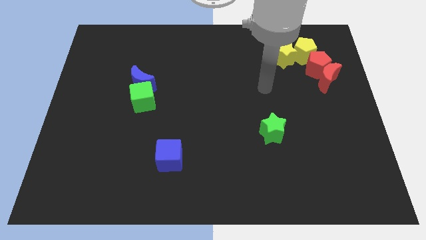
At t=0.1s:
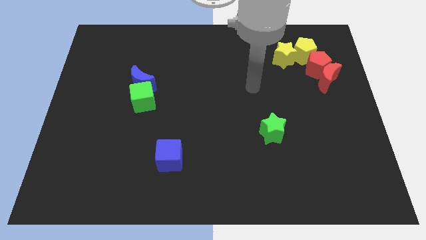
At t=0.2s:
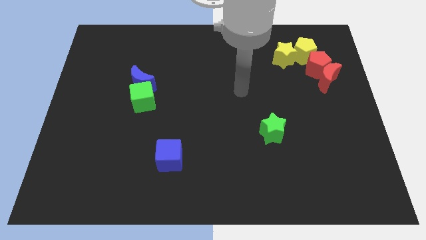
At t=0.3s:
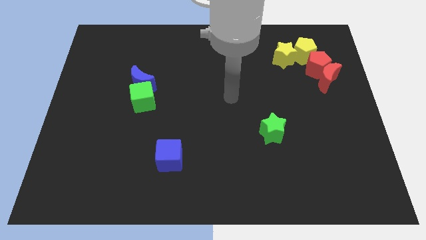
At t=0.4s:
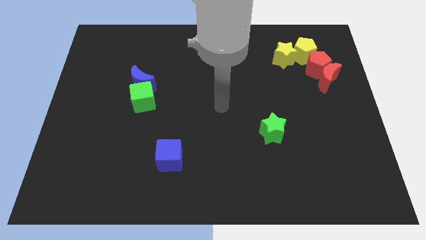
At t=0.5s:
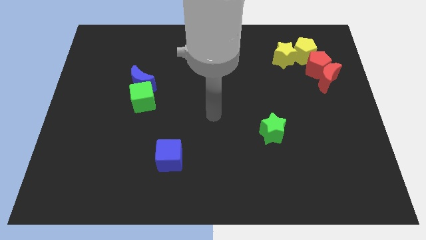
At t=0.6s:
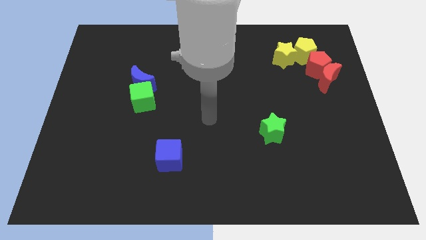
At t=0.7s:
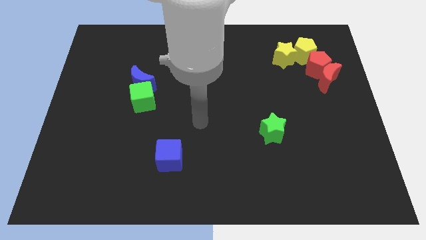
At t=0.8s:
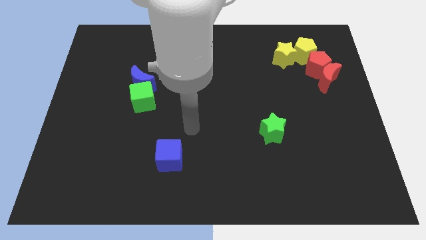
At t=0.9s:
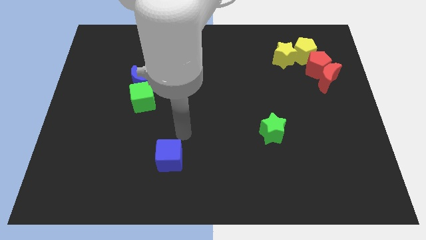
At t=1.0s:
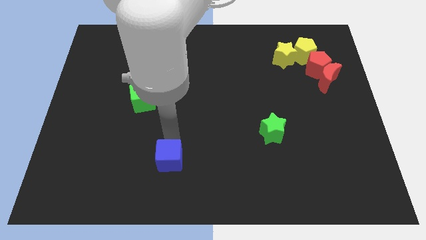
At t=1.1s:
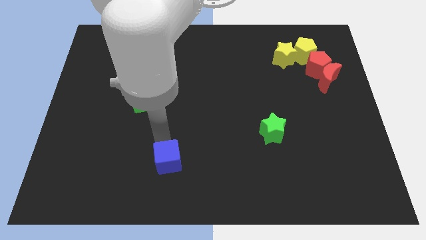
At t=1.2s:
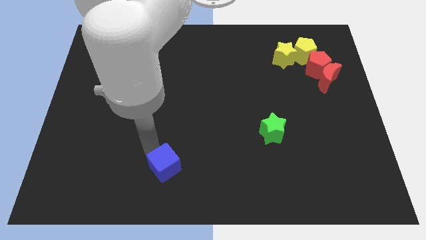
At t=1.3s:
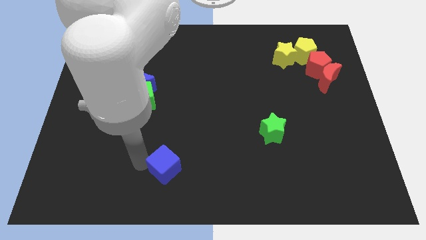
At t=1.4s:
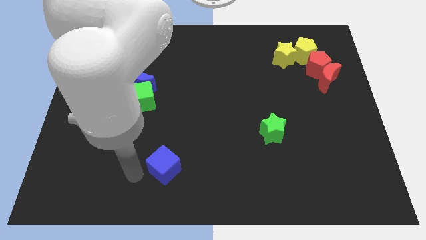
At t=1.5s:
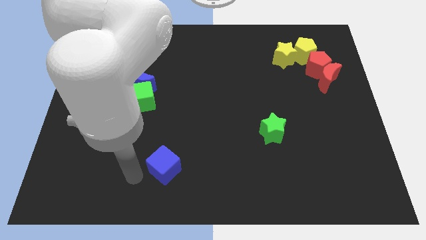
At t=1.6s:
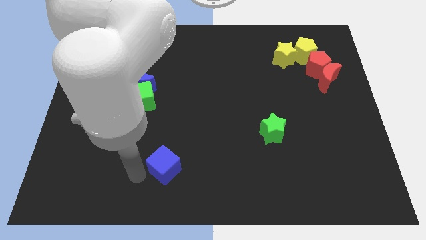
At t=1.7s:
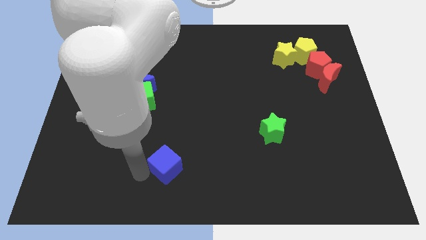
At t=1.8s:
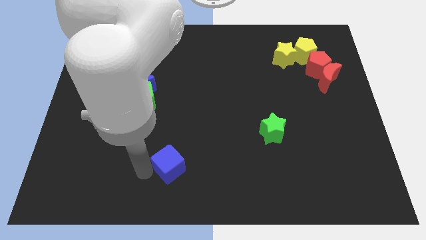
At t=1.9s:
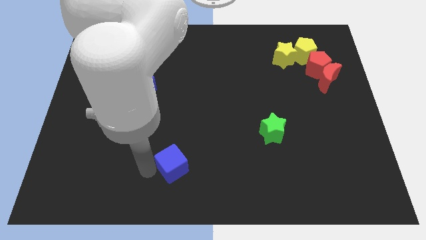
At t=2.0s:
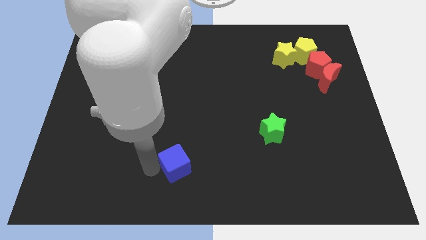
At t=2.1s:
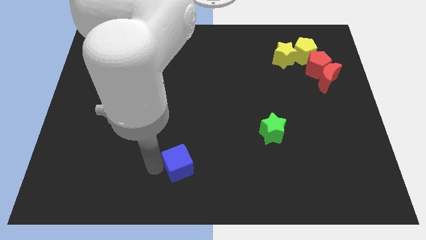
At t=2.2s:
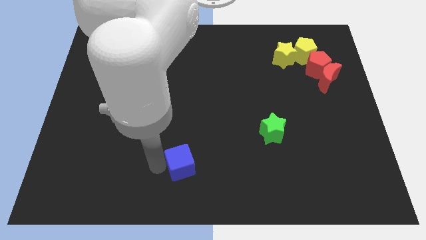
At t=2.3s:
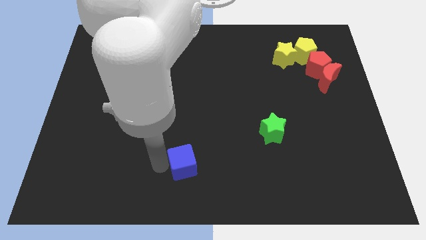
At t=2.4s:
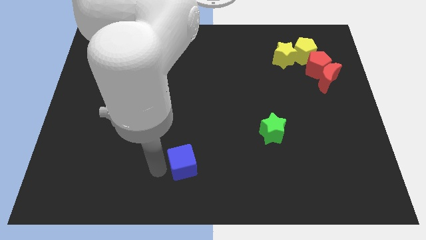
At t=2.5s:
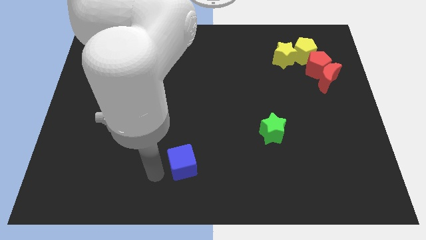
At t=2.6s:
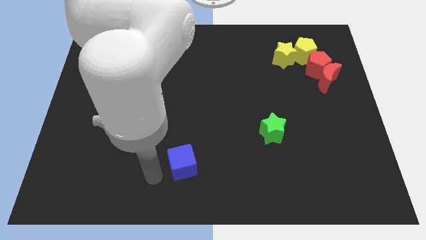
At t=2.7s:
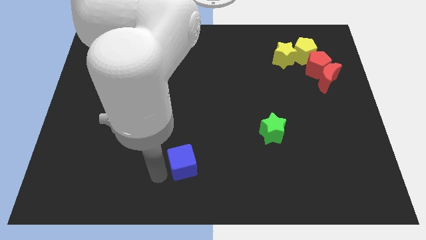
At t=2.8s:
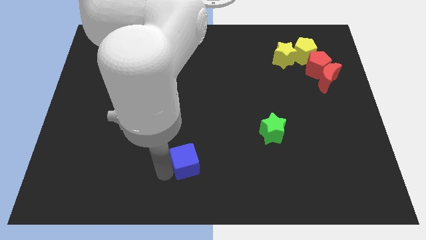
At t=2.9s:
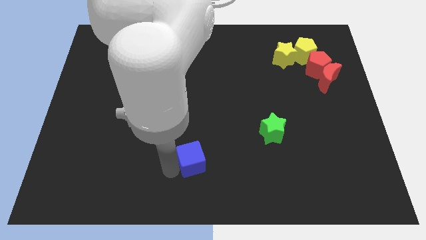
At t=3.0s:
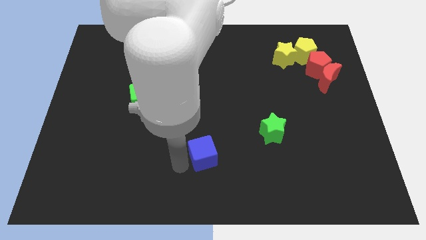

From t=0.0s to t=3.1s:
slightly push the blue cube right

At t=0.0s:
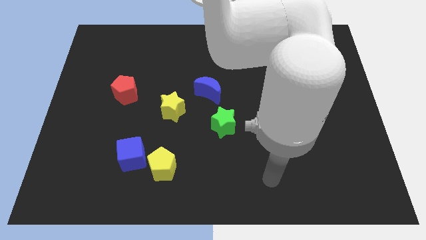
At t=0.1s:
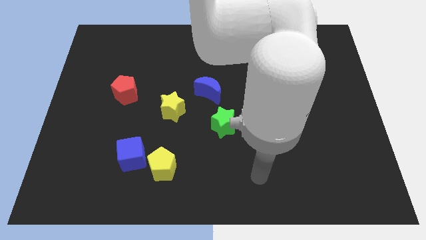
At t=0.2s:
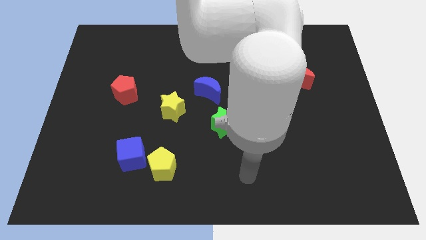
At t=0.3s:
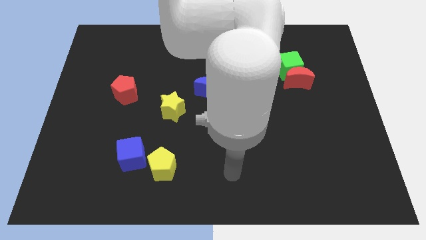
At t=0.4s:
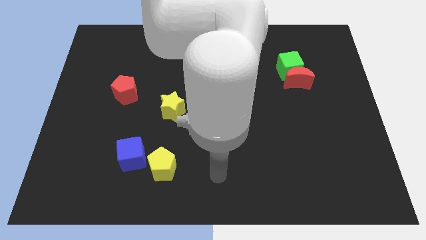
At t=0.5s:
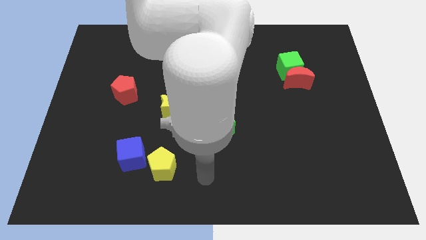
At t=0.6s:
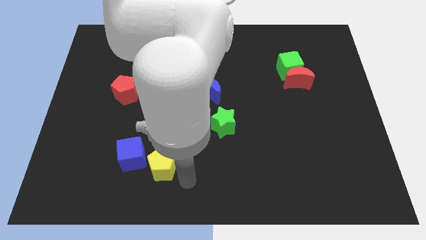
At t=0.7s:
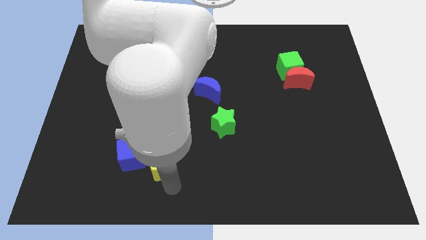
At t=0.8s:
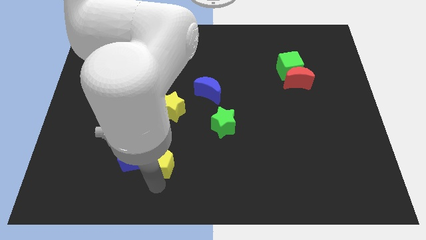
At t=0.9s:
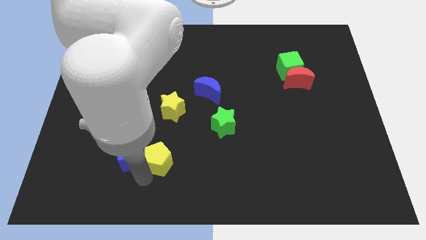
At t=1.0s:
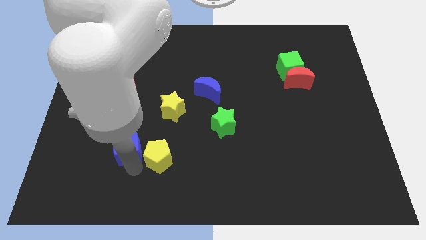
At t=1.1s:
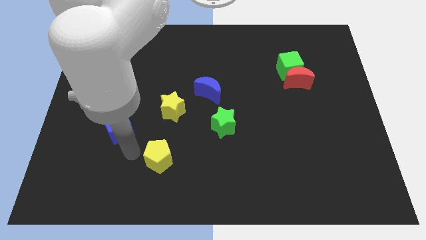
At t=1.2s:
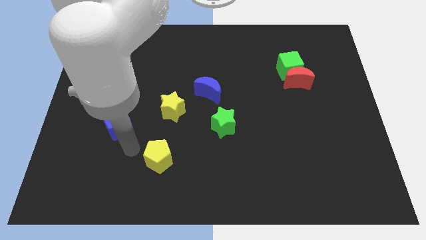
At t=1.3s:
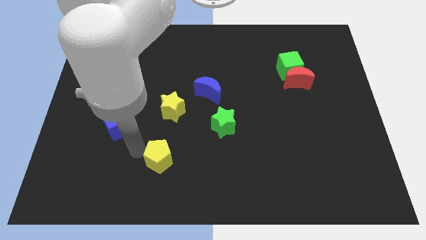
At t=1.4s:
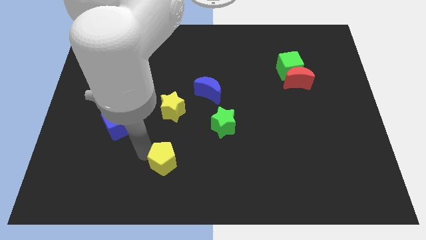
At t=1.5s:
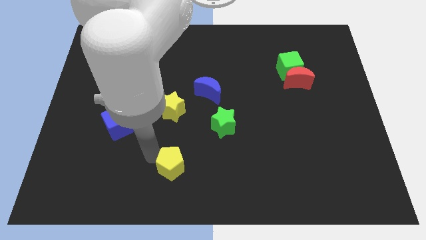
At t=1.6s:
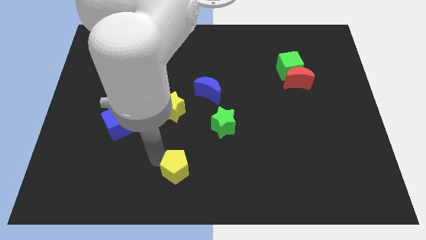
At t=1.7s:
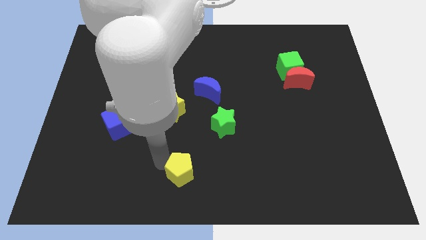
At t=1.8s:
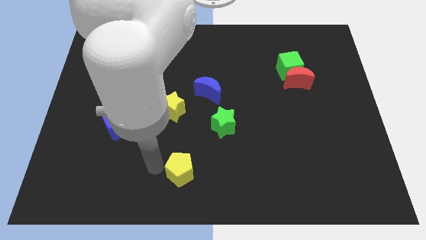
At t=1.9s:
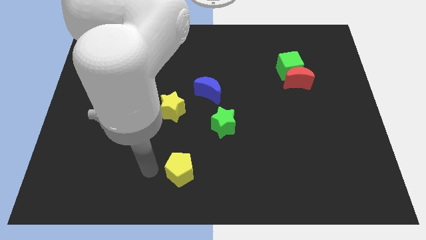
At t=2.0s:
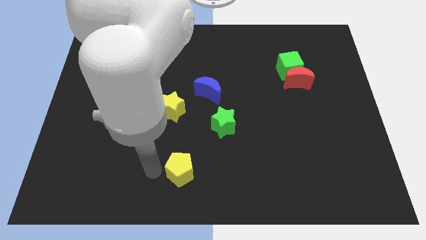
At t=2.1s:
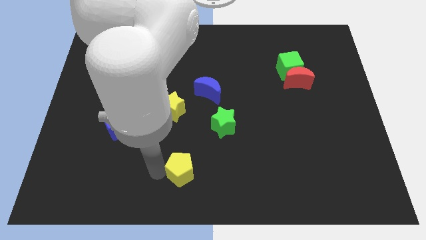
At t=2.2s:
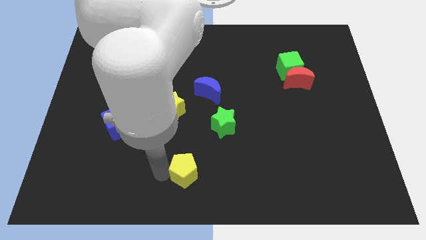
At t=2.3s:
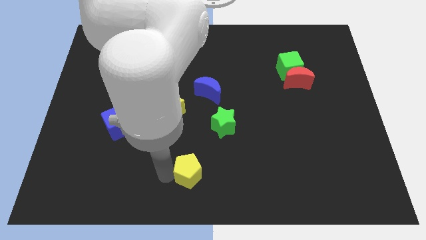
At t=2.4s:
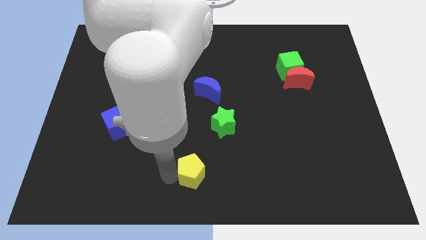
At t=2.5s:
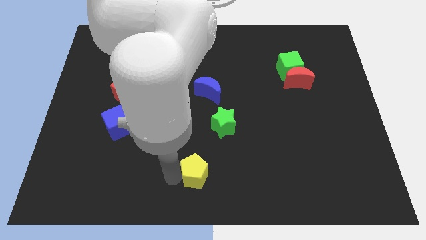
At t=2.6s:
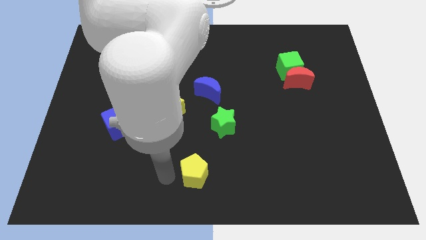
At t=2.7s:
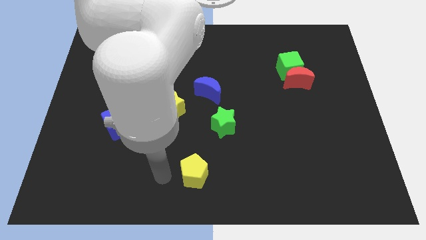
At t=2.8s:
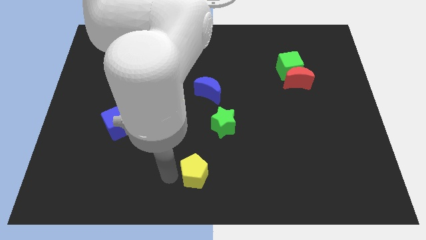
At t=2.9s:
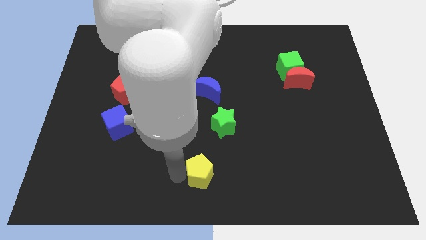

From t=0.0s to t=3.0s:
move the yellow pentagon slightly right

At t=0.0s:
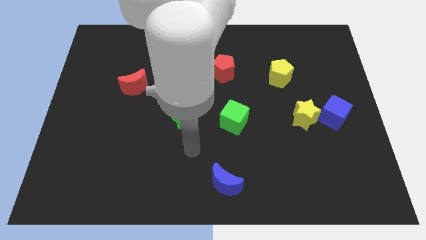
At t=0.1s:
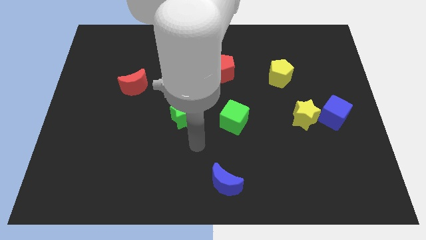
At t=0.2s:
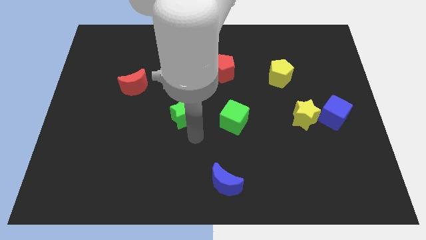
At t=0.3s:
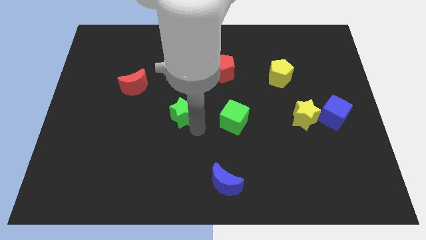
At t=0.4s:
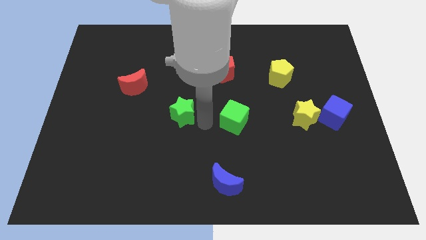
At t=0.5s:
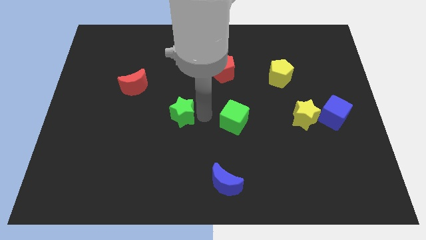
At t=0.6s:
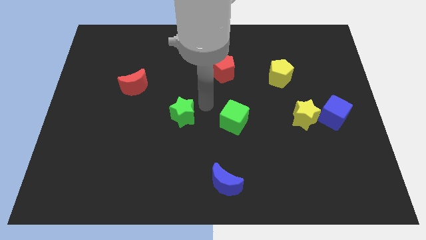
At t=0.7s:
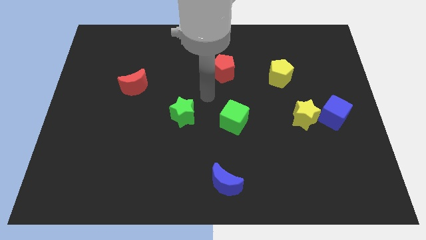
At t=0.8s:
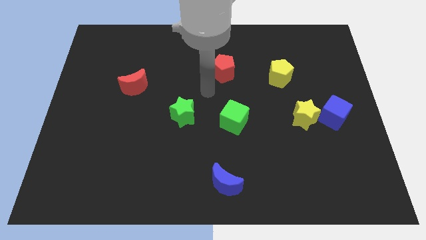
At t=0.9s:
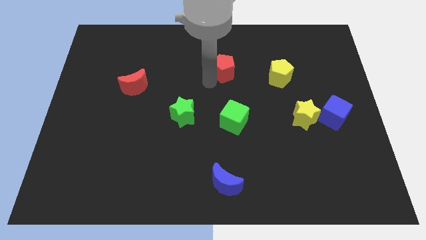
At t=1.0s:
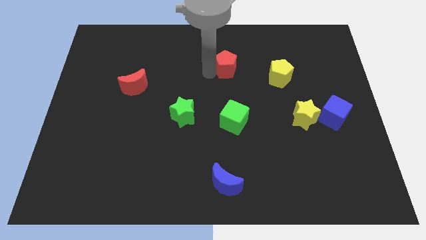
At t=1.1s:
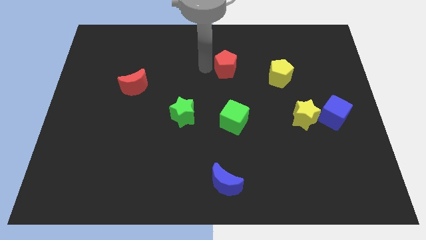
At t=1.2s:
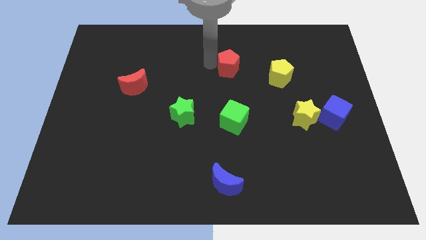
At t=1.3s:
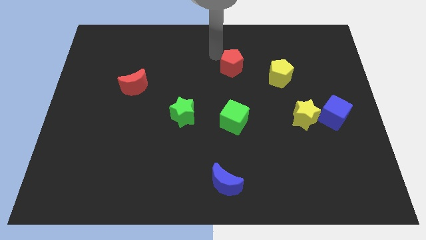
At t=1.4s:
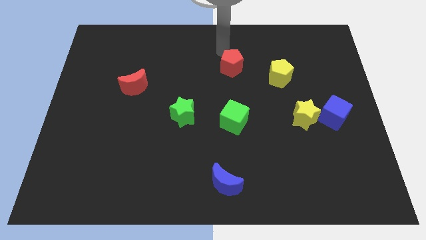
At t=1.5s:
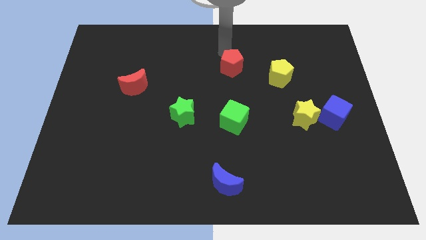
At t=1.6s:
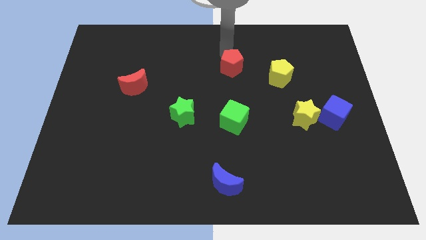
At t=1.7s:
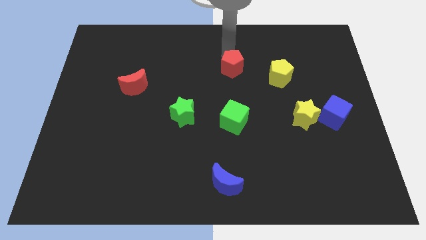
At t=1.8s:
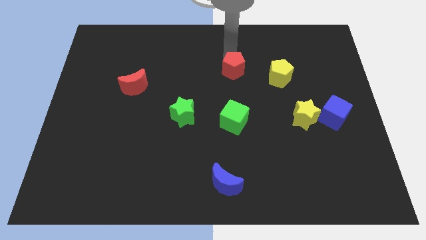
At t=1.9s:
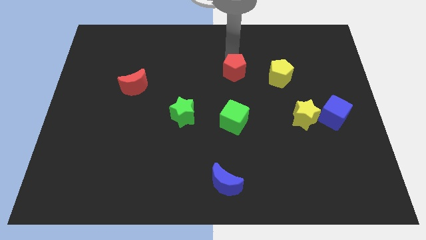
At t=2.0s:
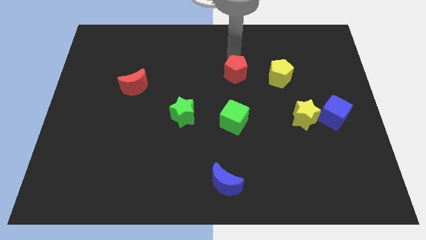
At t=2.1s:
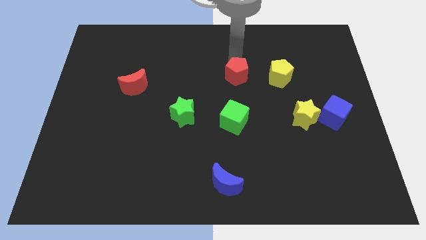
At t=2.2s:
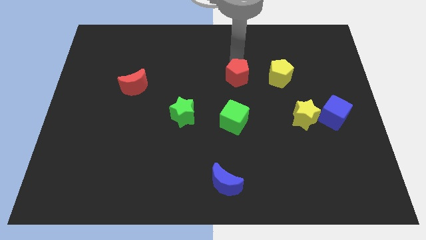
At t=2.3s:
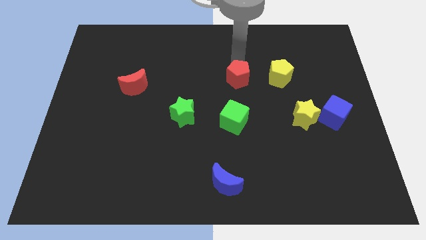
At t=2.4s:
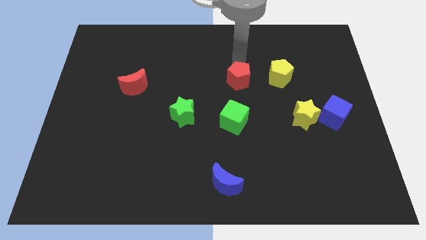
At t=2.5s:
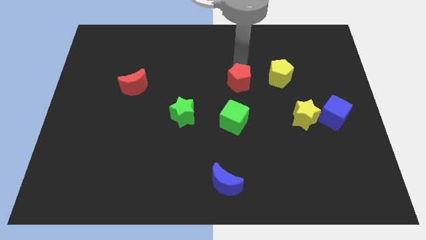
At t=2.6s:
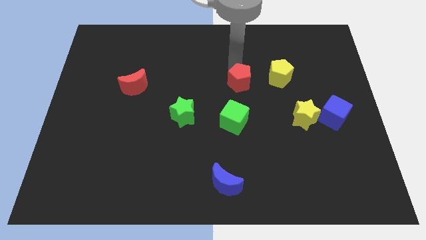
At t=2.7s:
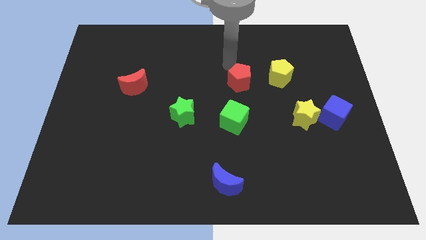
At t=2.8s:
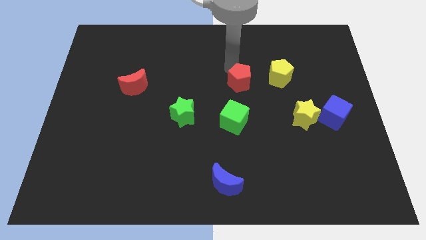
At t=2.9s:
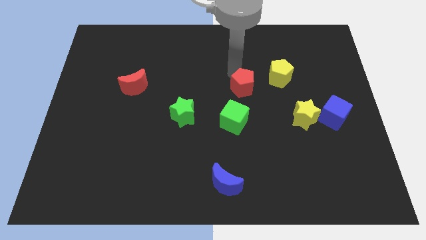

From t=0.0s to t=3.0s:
slightly push the red pentagon diagonally downwards and right
